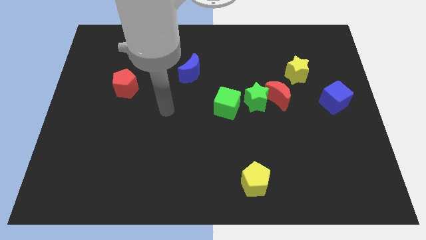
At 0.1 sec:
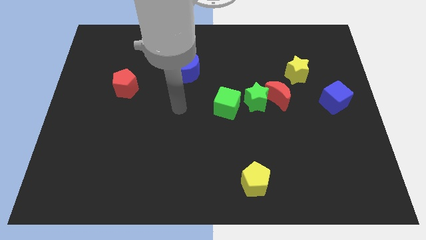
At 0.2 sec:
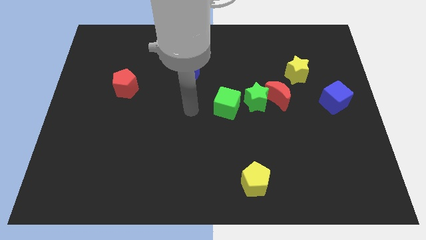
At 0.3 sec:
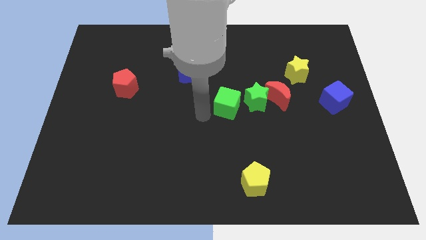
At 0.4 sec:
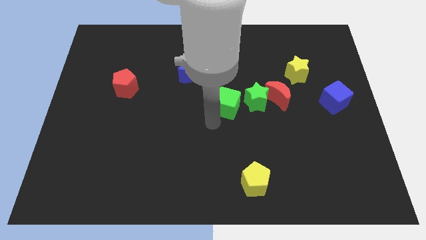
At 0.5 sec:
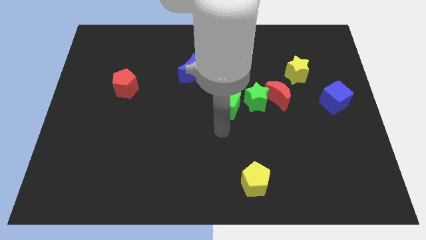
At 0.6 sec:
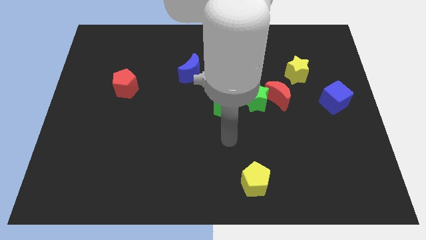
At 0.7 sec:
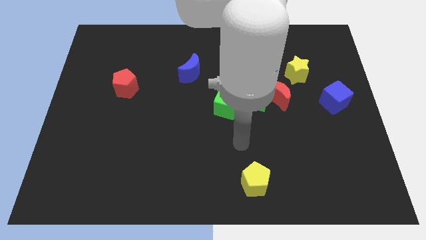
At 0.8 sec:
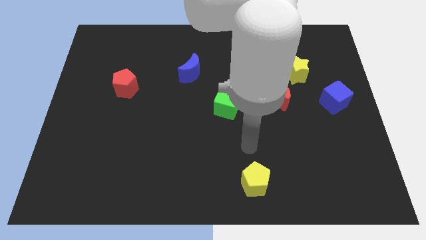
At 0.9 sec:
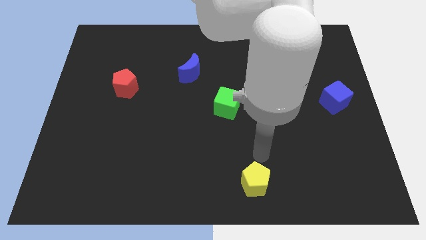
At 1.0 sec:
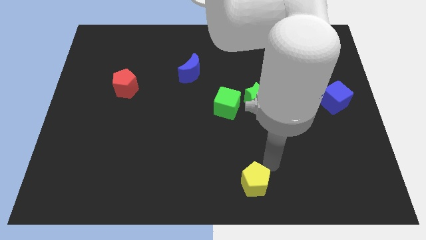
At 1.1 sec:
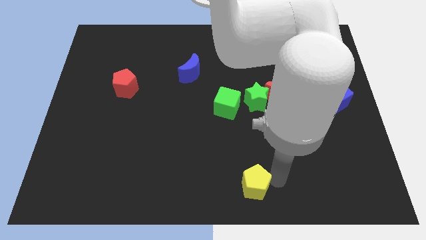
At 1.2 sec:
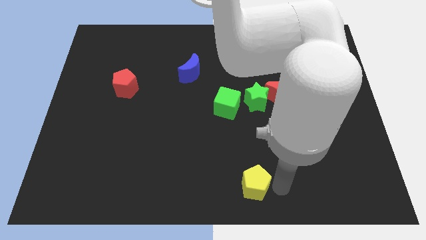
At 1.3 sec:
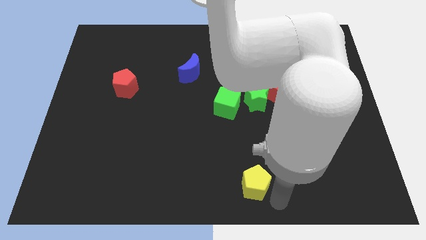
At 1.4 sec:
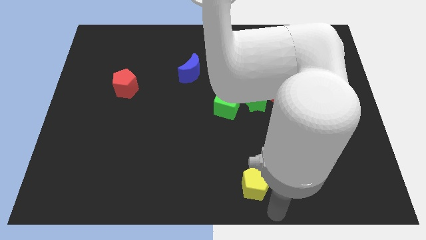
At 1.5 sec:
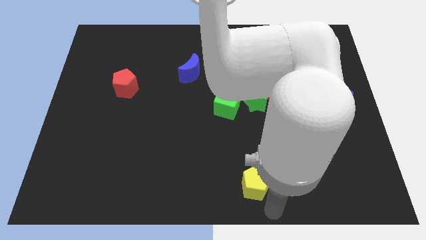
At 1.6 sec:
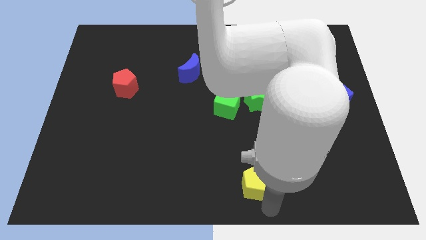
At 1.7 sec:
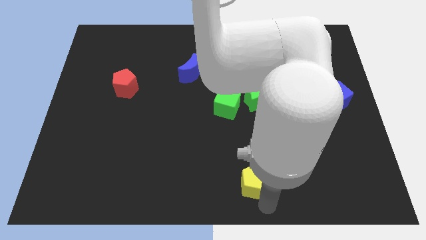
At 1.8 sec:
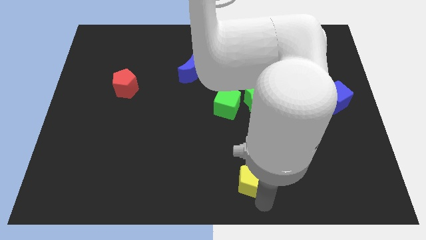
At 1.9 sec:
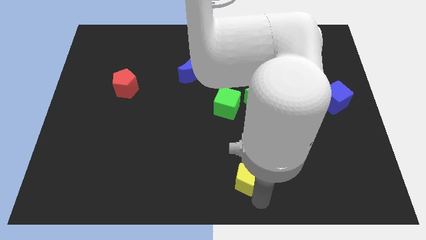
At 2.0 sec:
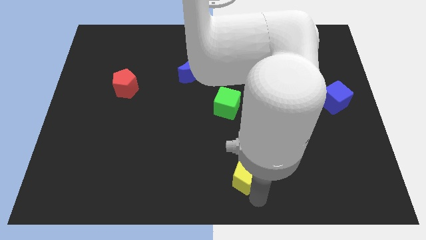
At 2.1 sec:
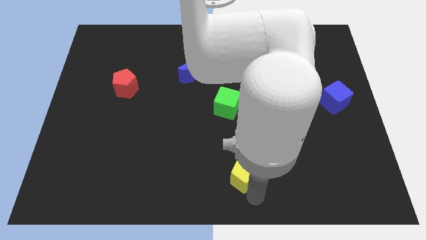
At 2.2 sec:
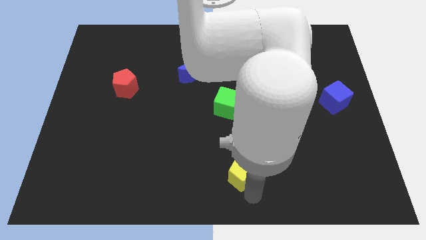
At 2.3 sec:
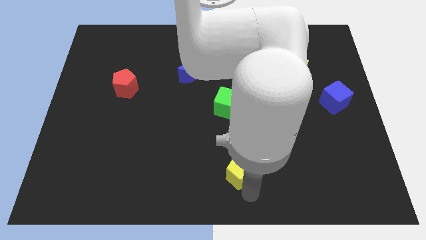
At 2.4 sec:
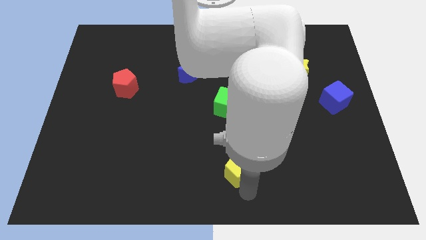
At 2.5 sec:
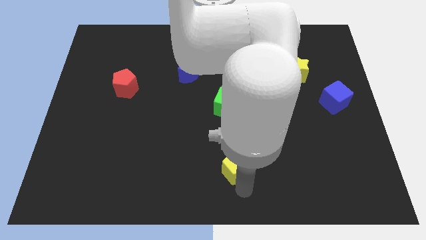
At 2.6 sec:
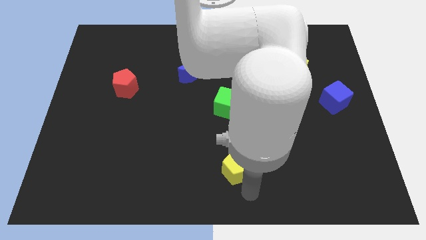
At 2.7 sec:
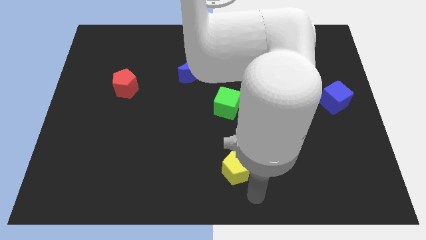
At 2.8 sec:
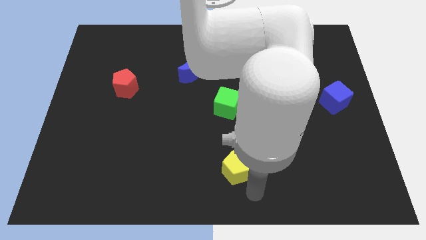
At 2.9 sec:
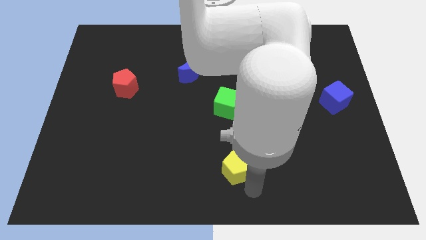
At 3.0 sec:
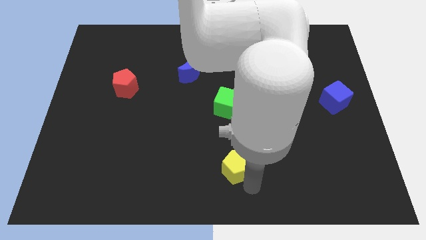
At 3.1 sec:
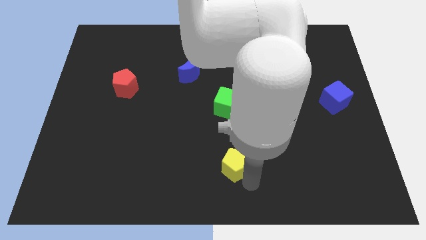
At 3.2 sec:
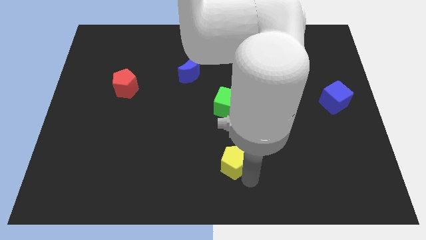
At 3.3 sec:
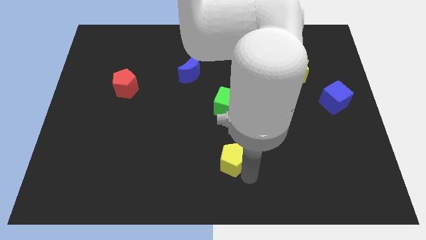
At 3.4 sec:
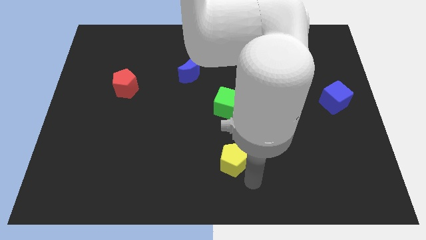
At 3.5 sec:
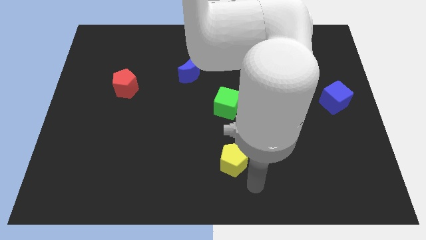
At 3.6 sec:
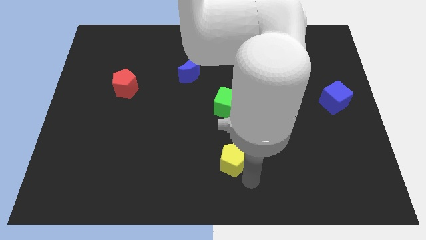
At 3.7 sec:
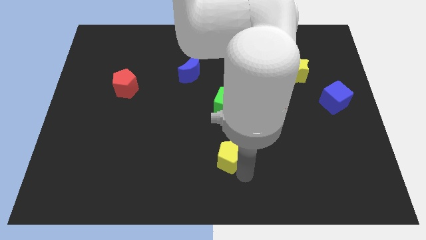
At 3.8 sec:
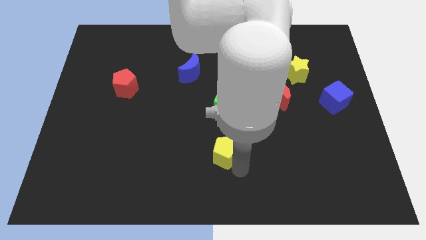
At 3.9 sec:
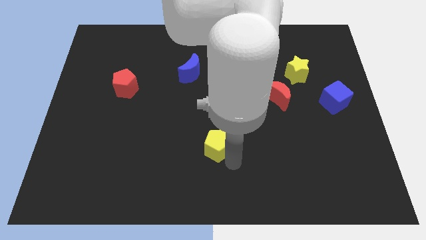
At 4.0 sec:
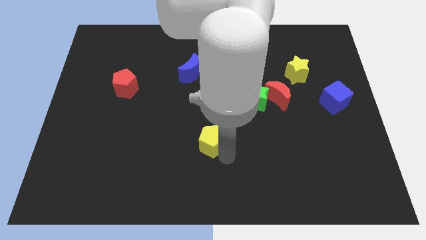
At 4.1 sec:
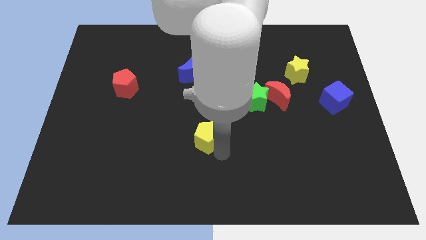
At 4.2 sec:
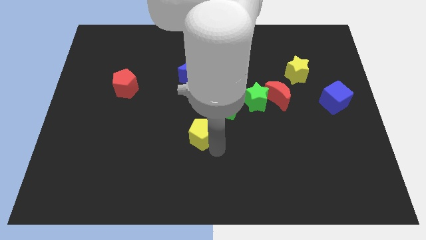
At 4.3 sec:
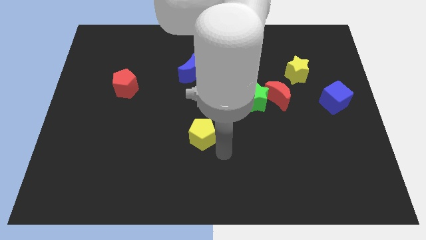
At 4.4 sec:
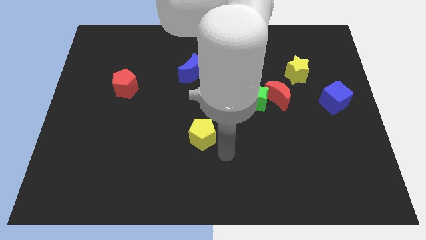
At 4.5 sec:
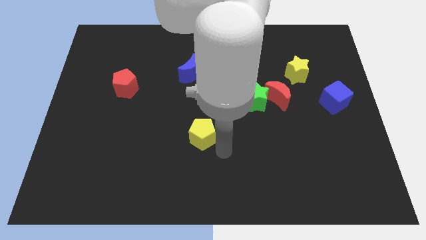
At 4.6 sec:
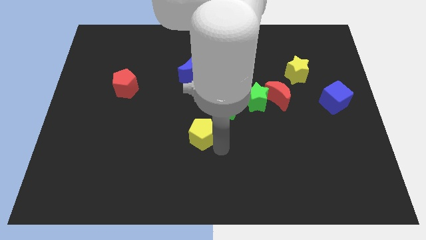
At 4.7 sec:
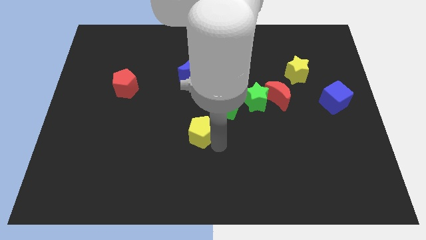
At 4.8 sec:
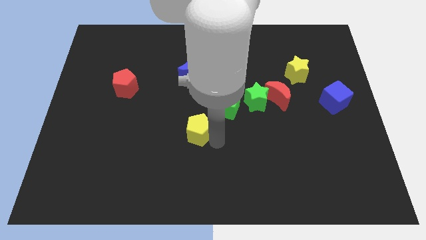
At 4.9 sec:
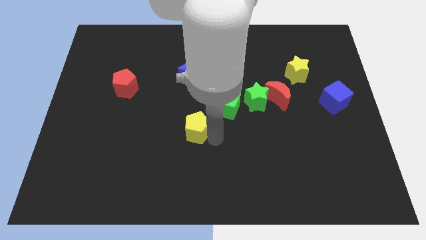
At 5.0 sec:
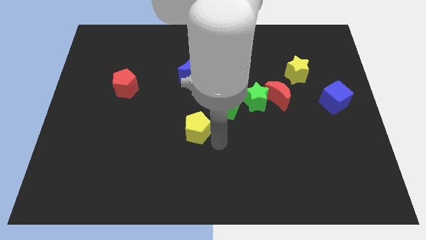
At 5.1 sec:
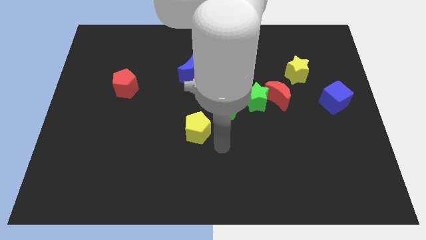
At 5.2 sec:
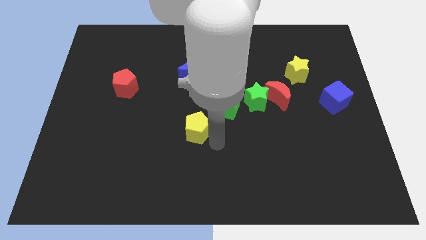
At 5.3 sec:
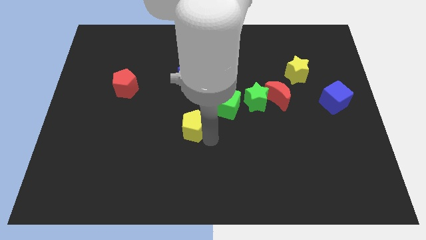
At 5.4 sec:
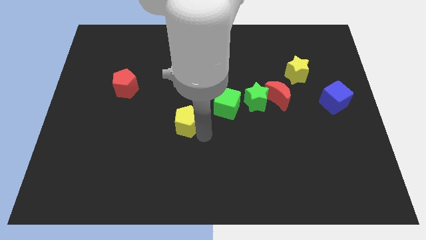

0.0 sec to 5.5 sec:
move the yellow pentagon up and to the left

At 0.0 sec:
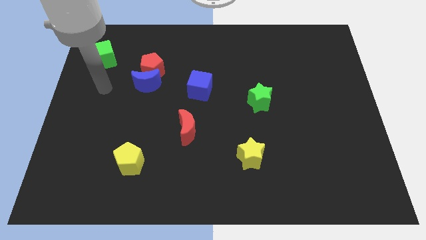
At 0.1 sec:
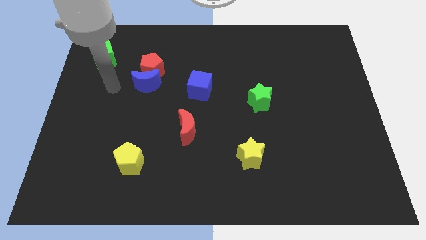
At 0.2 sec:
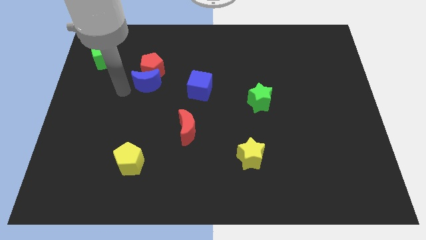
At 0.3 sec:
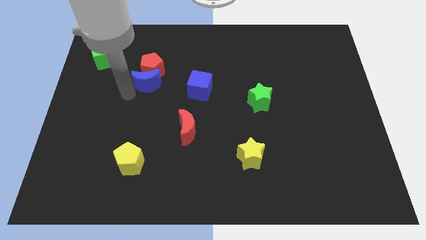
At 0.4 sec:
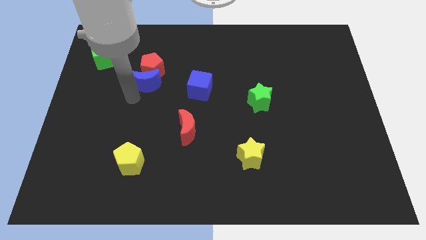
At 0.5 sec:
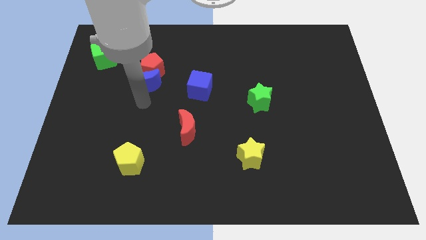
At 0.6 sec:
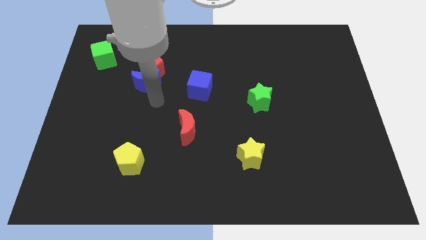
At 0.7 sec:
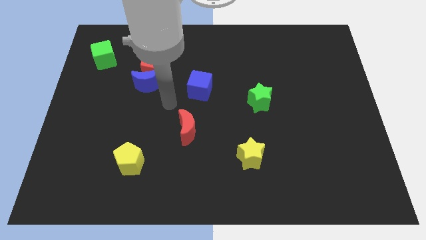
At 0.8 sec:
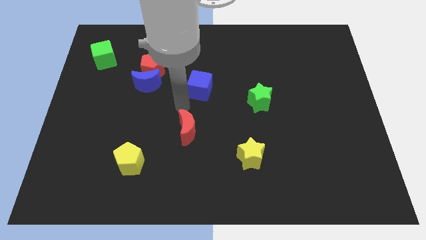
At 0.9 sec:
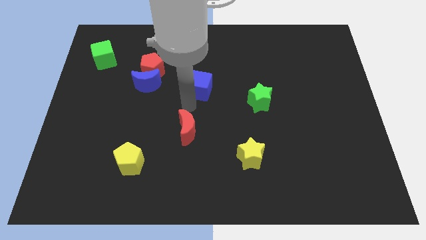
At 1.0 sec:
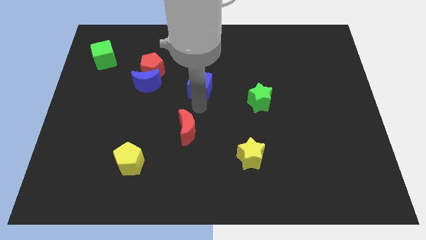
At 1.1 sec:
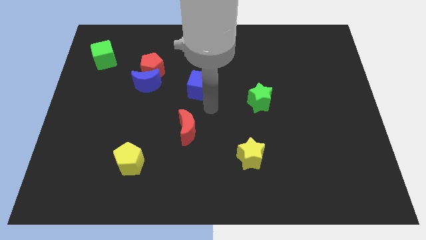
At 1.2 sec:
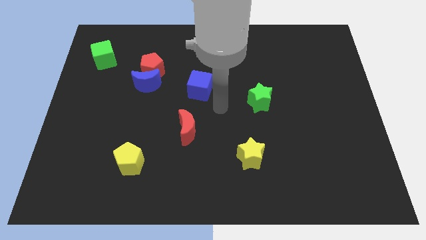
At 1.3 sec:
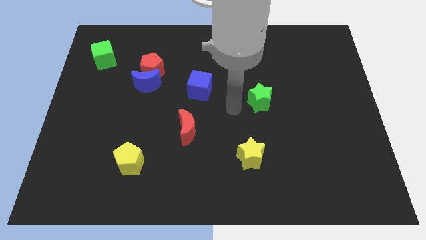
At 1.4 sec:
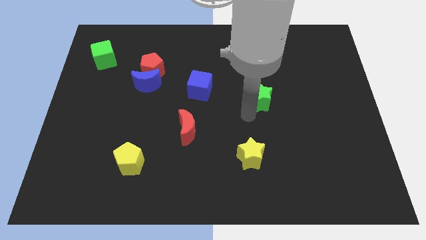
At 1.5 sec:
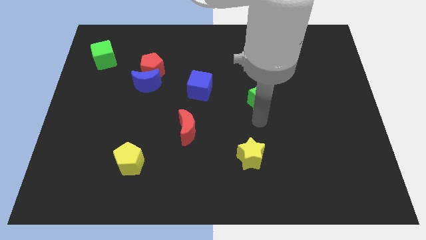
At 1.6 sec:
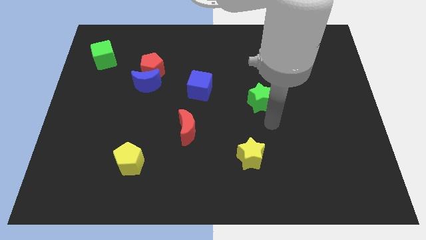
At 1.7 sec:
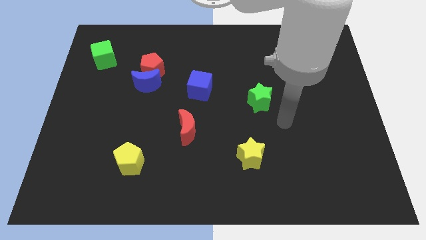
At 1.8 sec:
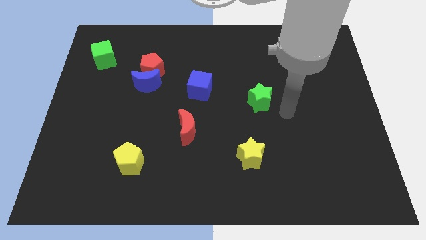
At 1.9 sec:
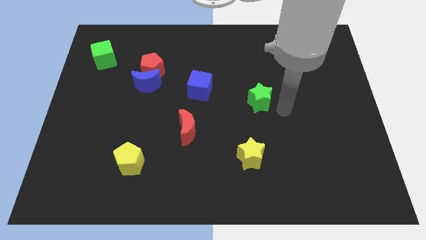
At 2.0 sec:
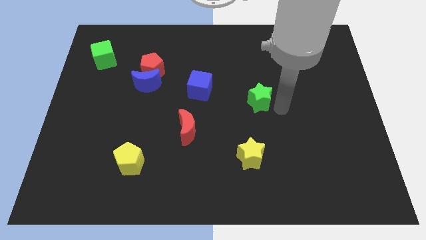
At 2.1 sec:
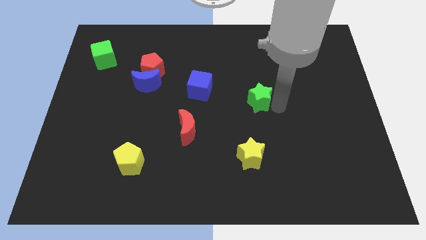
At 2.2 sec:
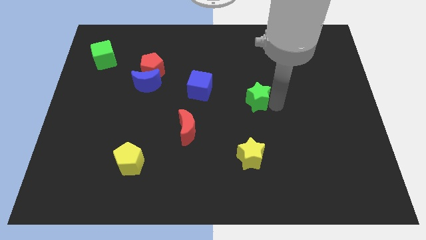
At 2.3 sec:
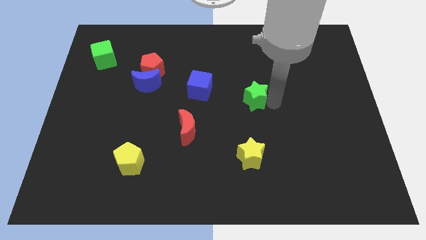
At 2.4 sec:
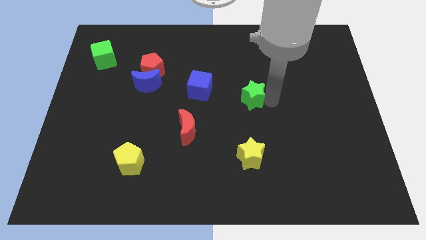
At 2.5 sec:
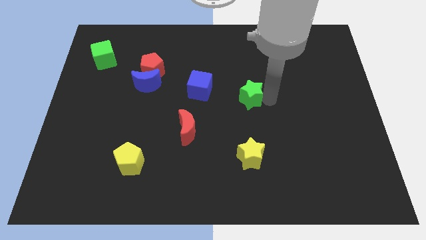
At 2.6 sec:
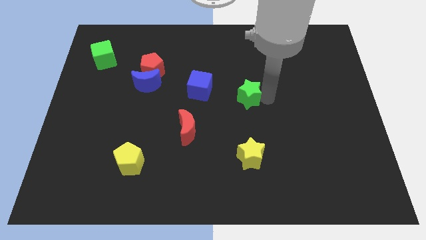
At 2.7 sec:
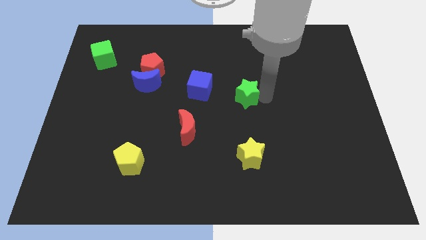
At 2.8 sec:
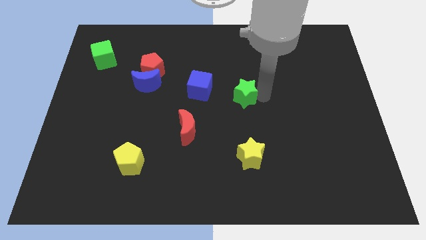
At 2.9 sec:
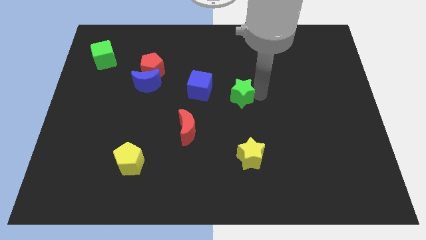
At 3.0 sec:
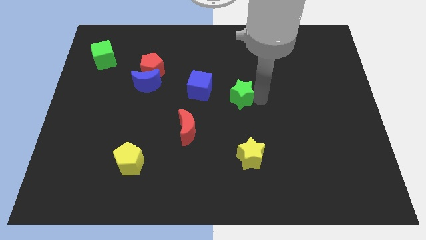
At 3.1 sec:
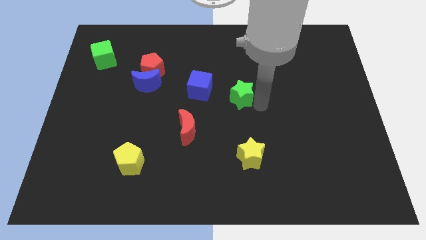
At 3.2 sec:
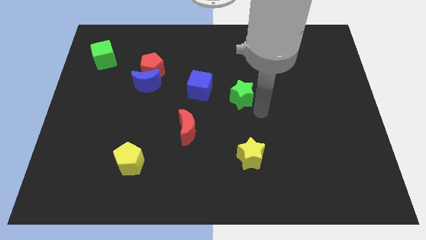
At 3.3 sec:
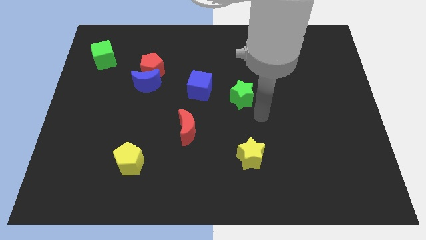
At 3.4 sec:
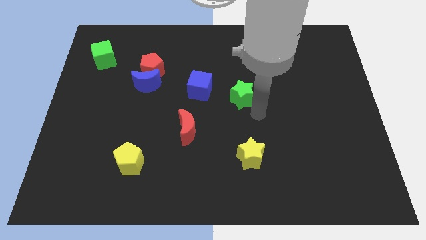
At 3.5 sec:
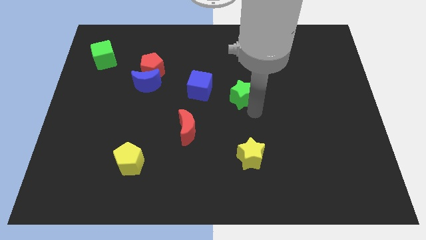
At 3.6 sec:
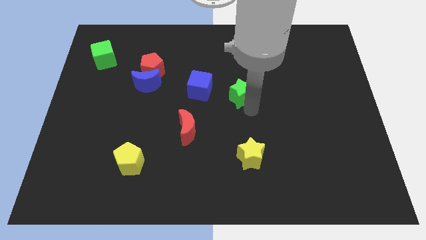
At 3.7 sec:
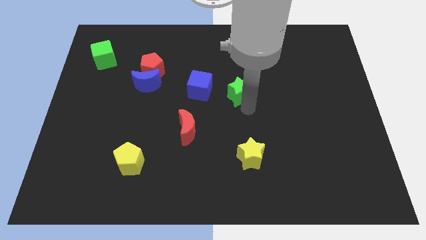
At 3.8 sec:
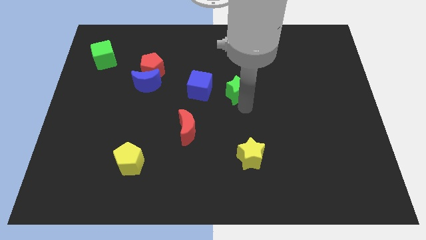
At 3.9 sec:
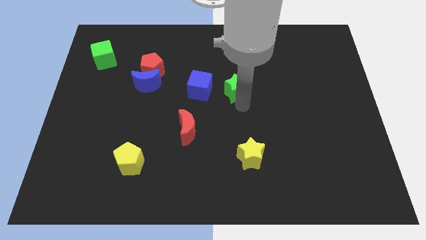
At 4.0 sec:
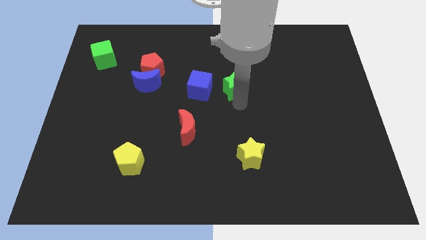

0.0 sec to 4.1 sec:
push the green star a little bit diagonally up and to the left
